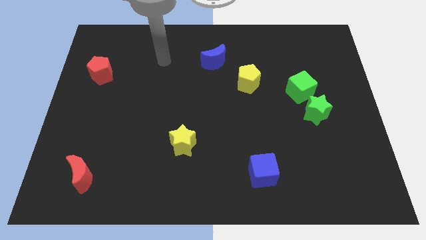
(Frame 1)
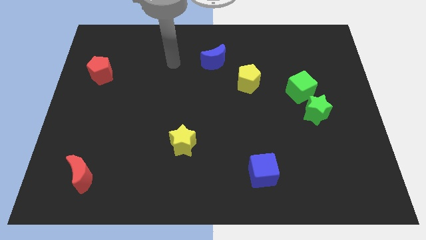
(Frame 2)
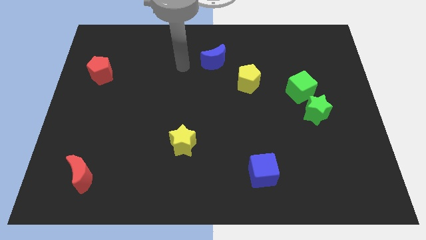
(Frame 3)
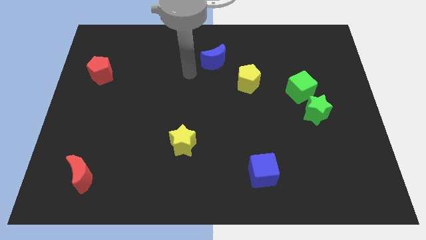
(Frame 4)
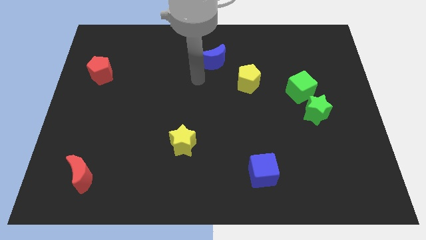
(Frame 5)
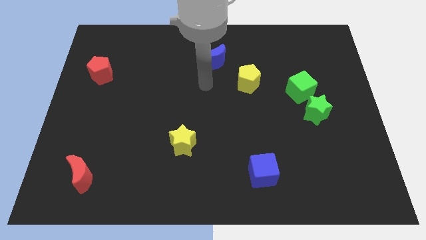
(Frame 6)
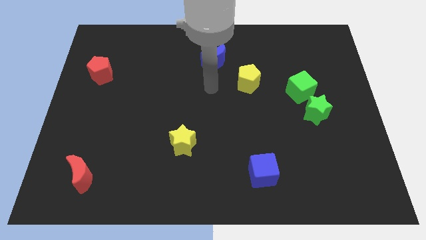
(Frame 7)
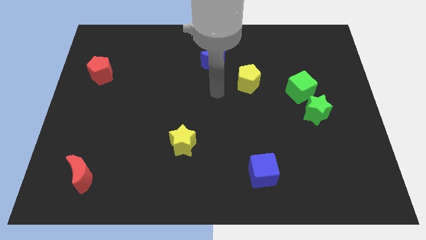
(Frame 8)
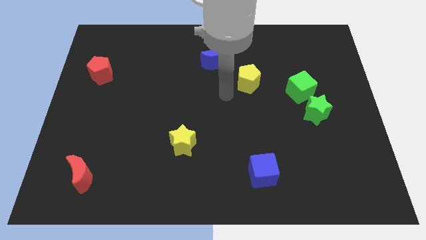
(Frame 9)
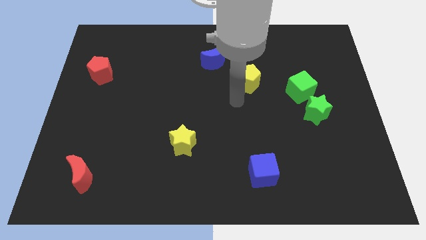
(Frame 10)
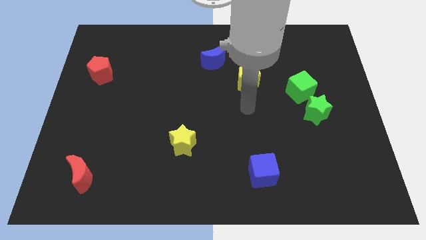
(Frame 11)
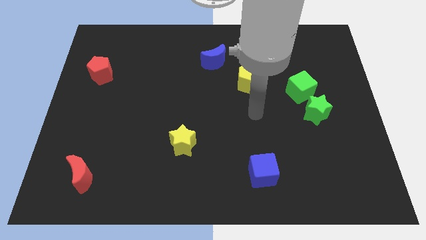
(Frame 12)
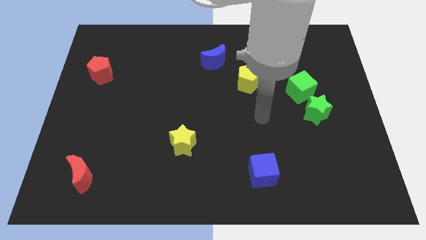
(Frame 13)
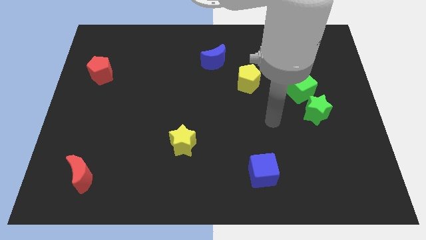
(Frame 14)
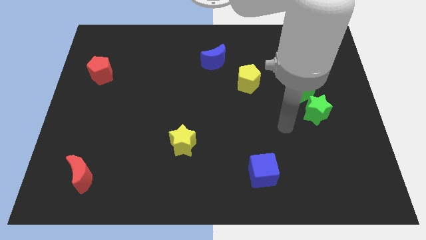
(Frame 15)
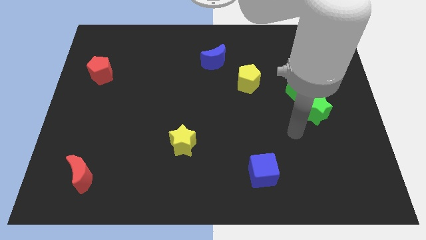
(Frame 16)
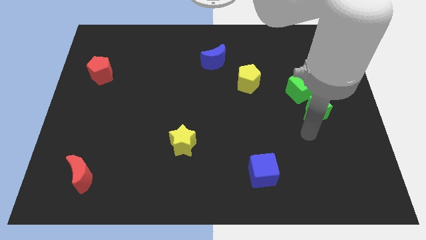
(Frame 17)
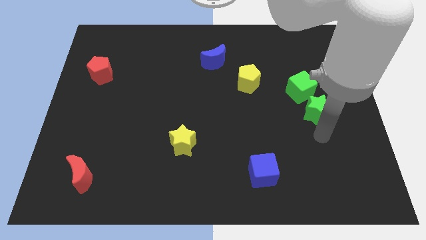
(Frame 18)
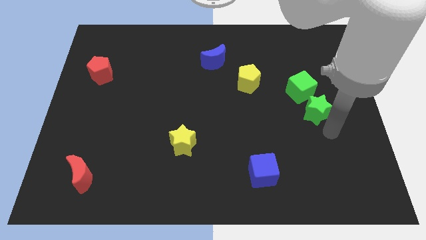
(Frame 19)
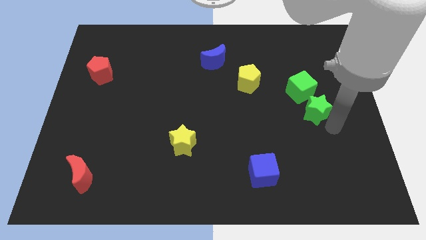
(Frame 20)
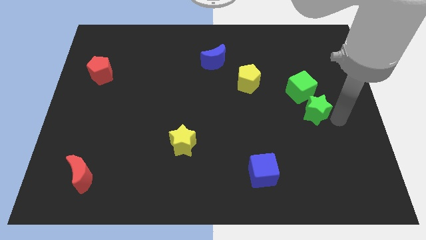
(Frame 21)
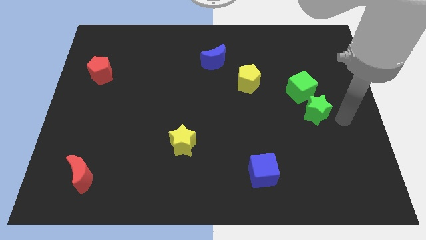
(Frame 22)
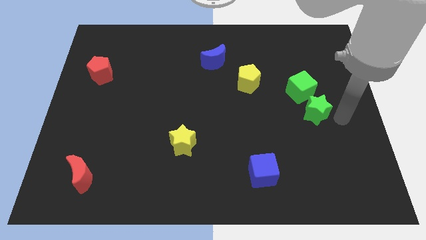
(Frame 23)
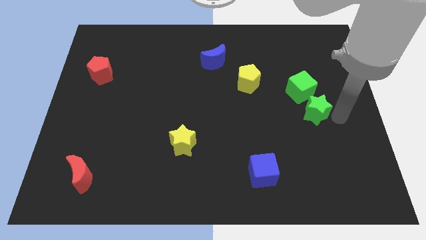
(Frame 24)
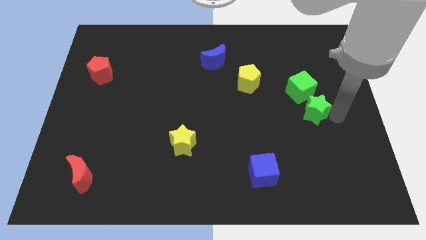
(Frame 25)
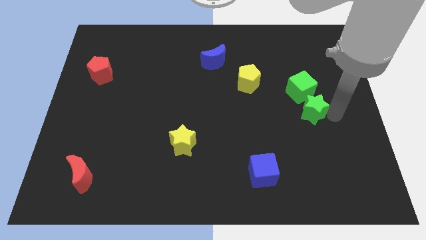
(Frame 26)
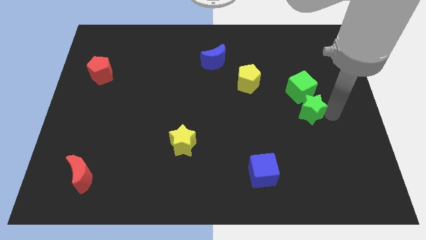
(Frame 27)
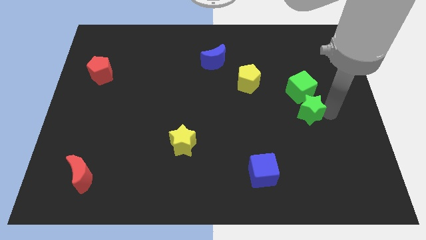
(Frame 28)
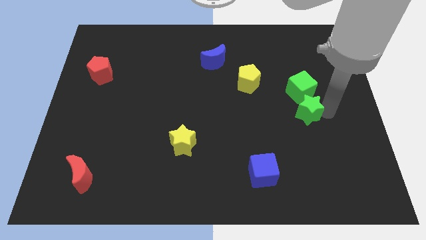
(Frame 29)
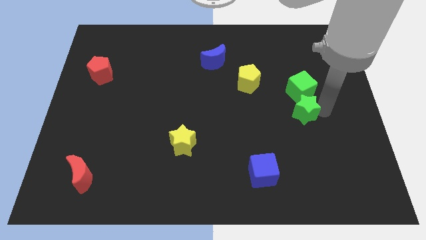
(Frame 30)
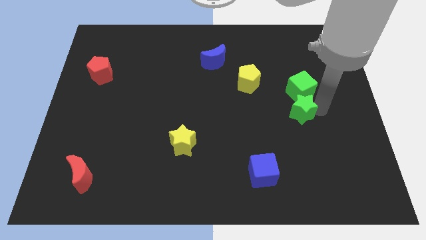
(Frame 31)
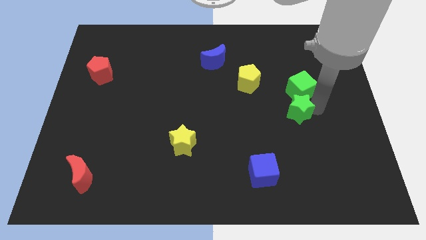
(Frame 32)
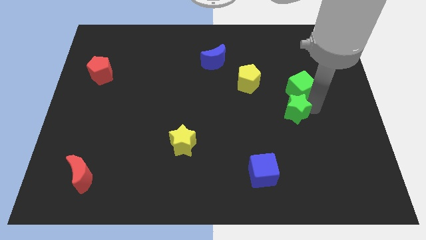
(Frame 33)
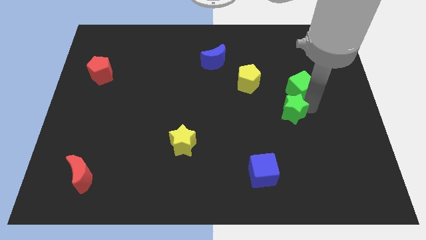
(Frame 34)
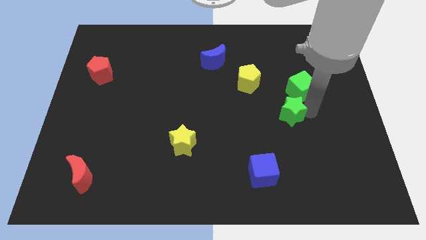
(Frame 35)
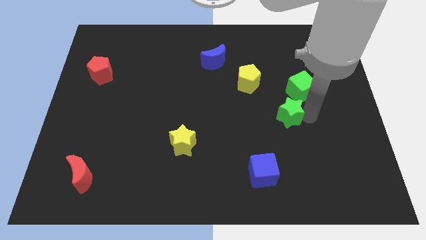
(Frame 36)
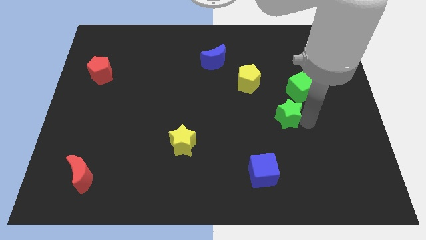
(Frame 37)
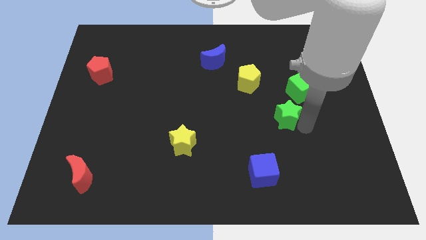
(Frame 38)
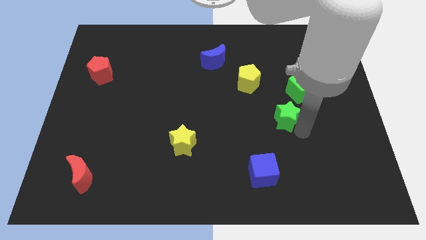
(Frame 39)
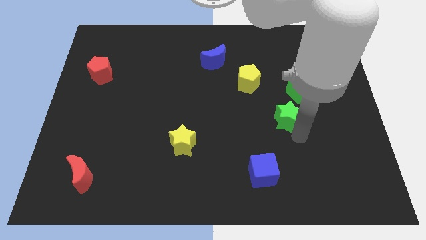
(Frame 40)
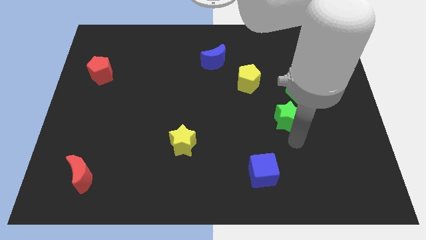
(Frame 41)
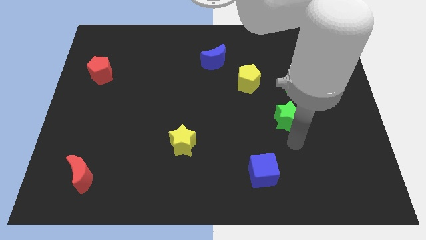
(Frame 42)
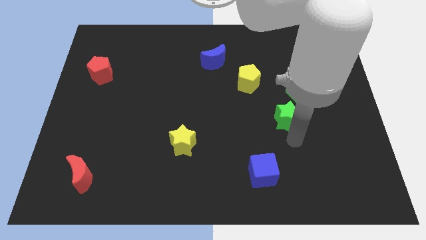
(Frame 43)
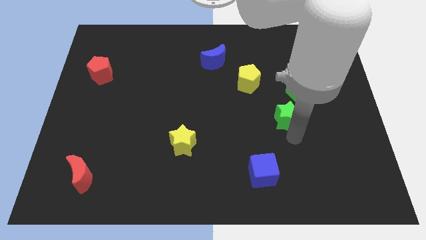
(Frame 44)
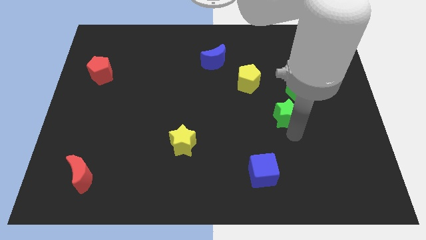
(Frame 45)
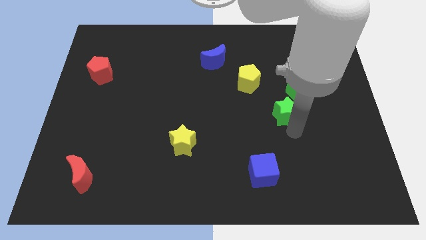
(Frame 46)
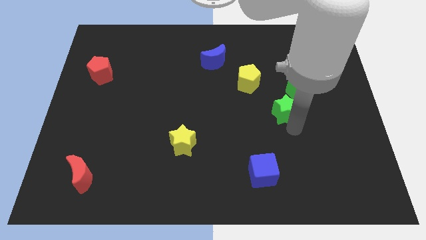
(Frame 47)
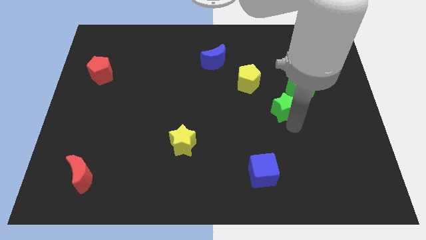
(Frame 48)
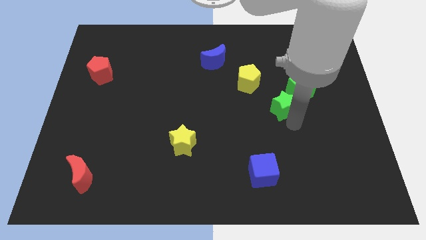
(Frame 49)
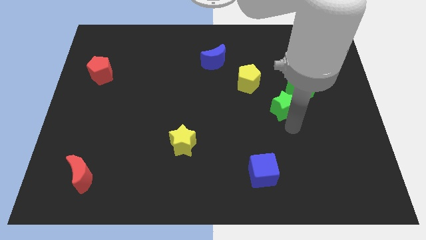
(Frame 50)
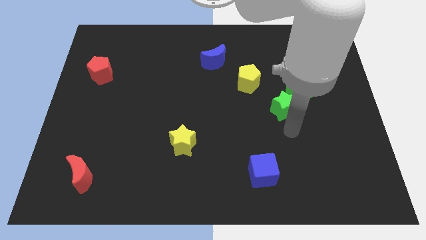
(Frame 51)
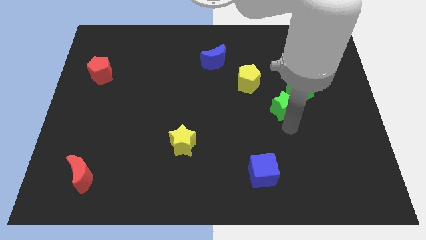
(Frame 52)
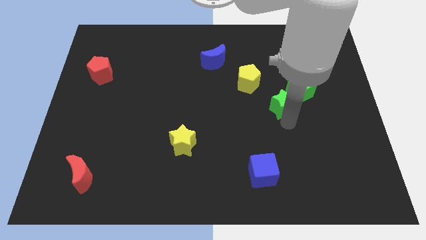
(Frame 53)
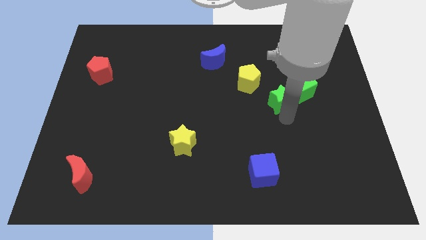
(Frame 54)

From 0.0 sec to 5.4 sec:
move the green star up and then to the left a little bit

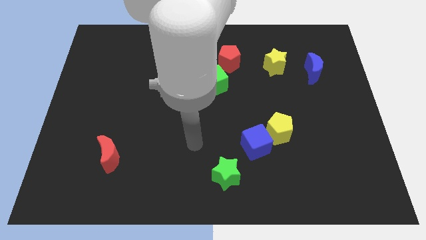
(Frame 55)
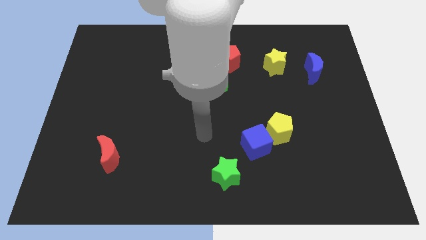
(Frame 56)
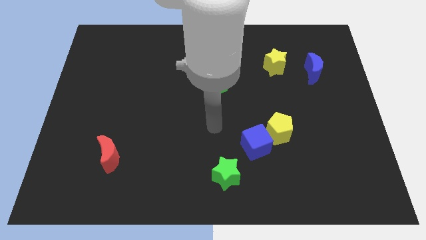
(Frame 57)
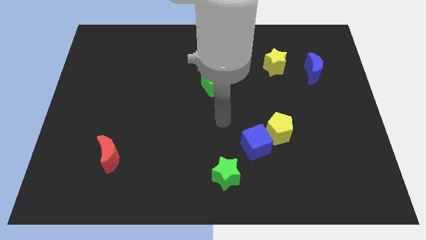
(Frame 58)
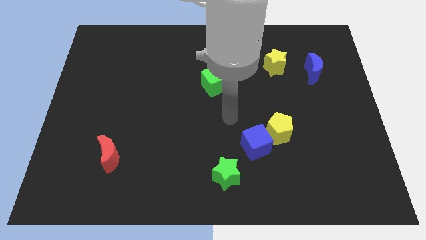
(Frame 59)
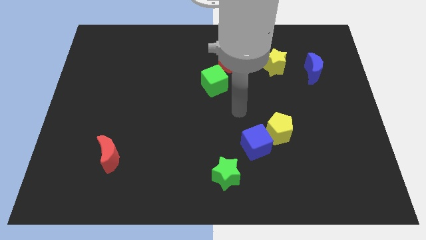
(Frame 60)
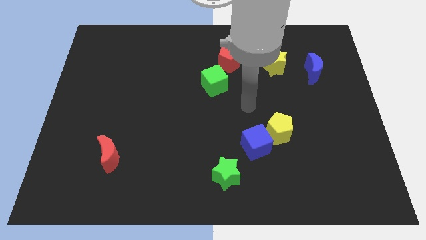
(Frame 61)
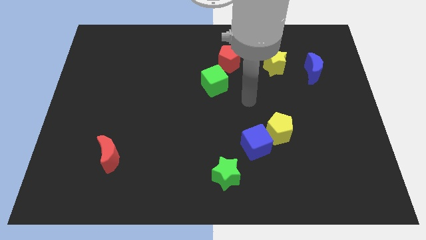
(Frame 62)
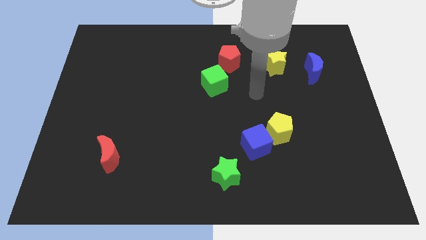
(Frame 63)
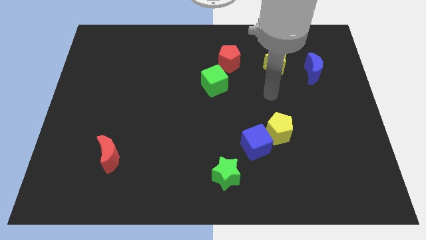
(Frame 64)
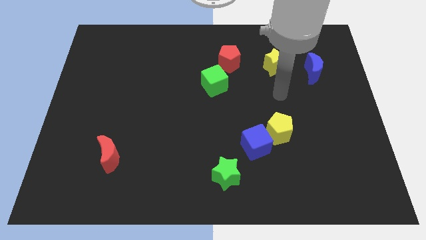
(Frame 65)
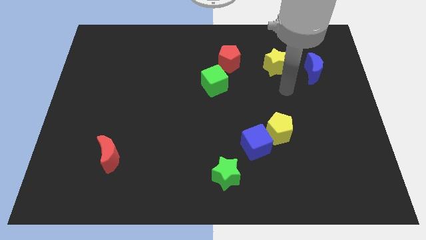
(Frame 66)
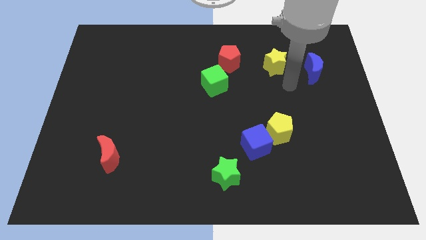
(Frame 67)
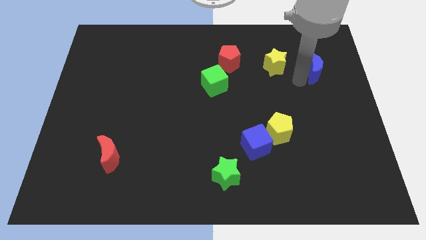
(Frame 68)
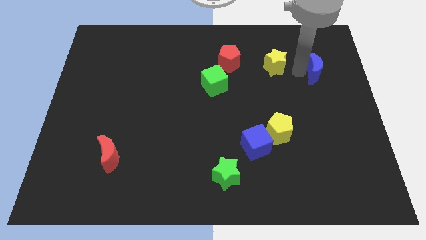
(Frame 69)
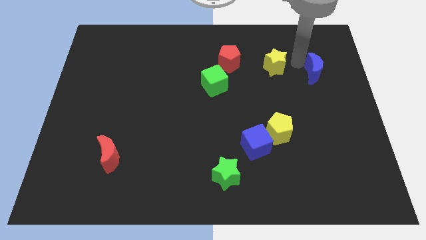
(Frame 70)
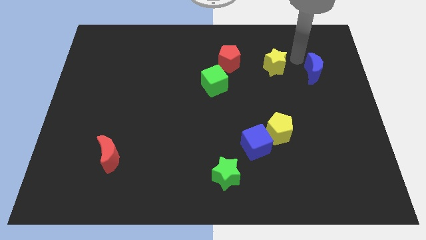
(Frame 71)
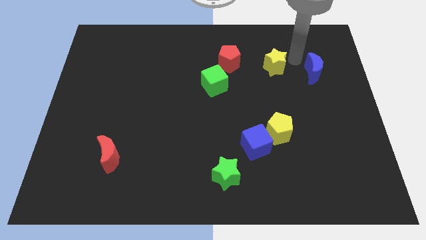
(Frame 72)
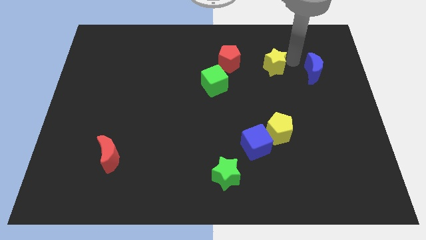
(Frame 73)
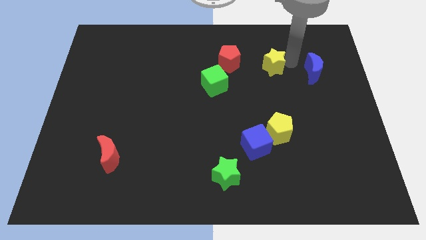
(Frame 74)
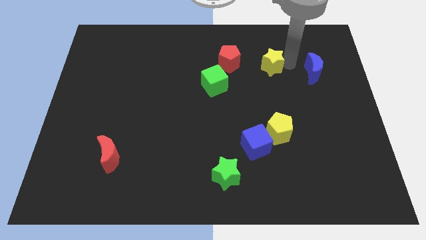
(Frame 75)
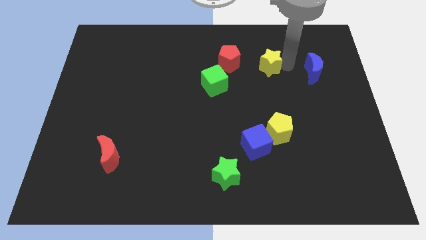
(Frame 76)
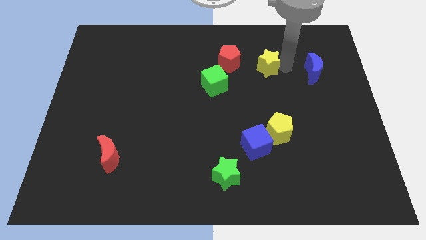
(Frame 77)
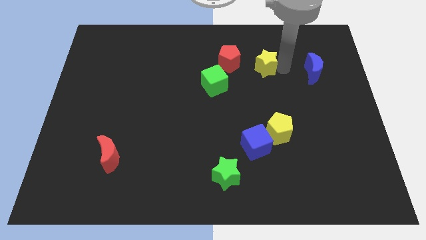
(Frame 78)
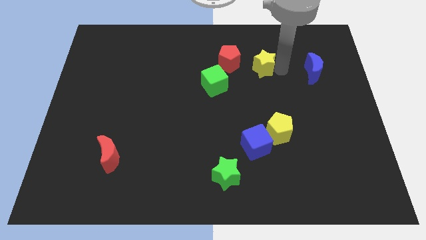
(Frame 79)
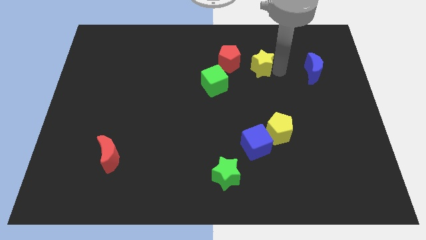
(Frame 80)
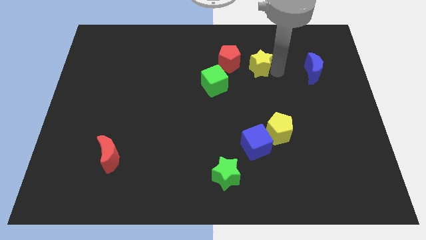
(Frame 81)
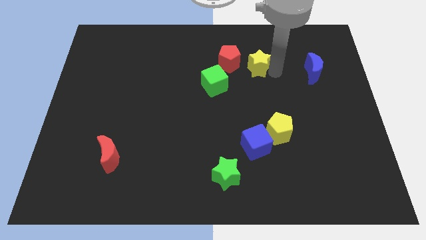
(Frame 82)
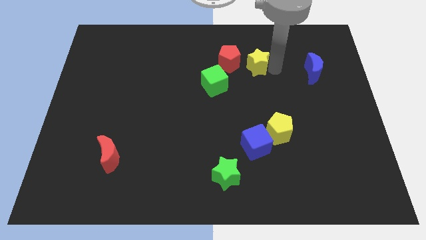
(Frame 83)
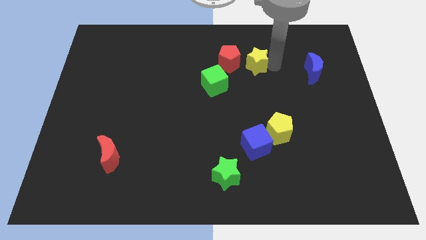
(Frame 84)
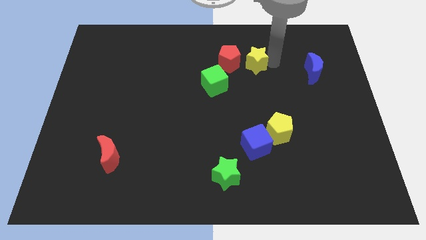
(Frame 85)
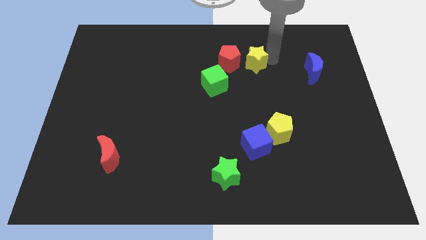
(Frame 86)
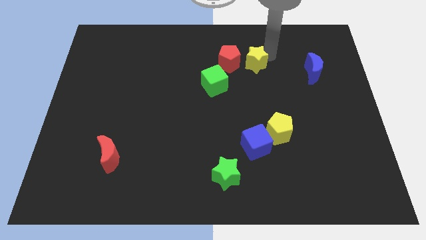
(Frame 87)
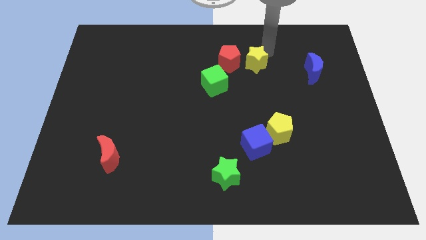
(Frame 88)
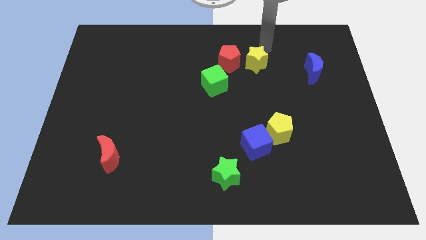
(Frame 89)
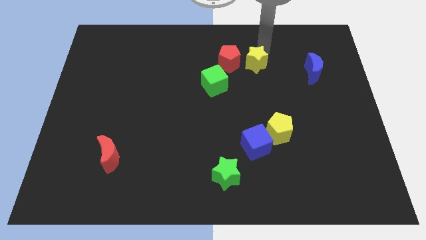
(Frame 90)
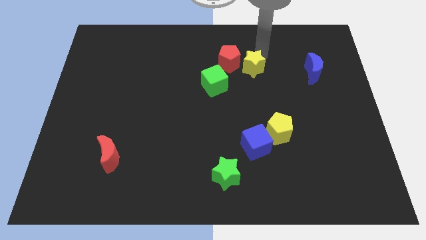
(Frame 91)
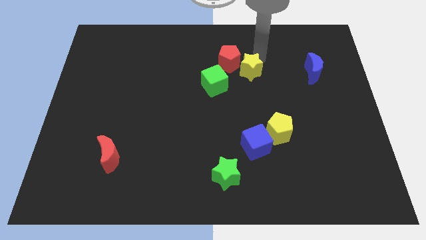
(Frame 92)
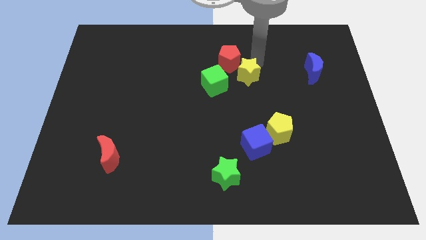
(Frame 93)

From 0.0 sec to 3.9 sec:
move the yellow star down and left a little bit
